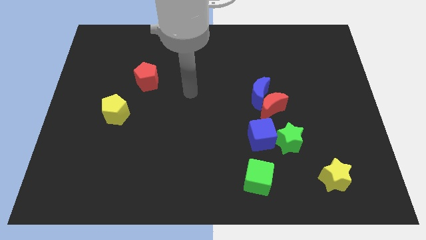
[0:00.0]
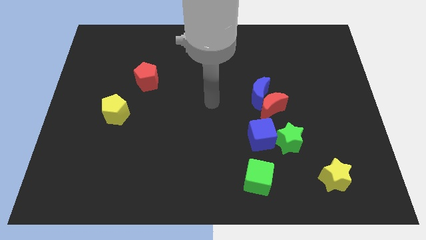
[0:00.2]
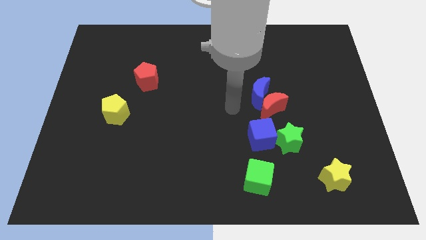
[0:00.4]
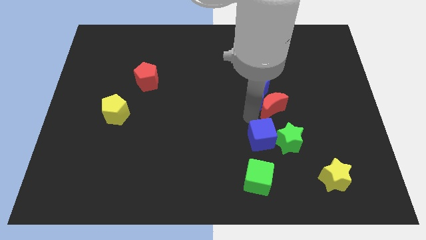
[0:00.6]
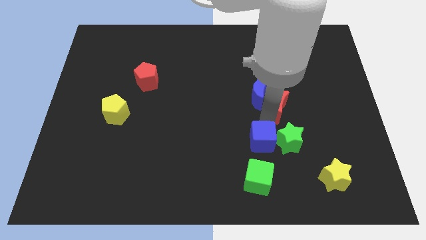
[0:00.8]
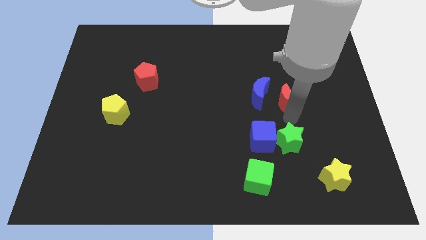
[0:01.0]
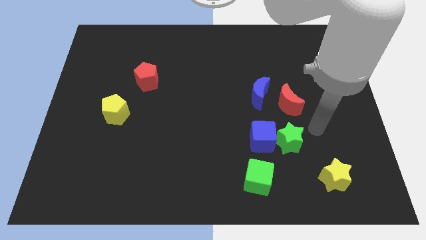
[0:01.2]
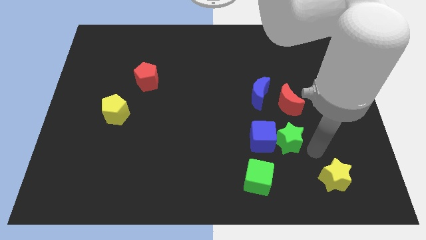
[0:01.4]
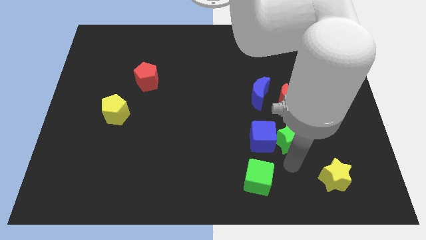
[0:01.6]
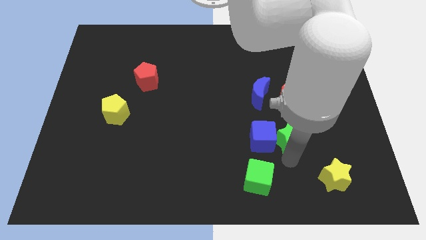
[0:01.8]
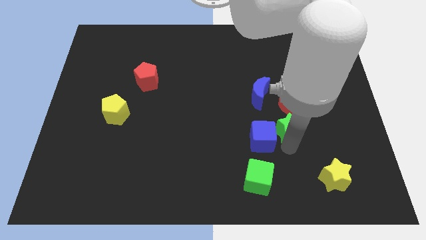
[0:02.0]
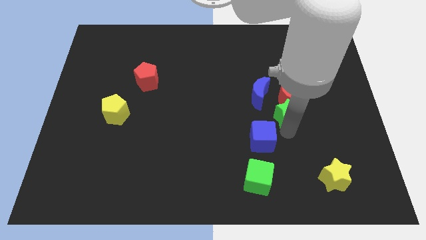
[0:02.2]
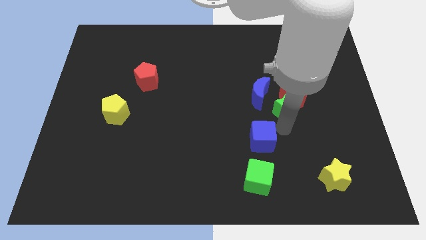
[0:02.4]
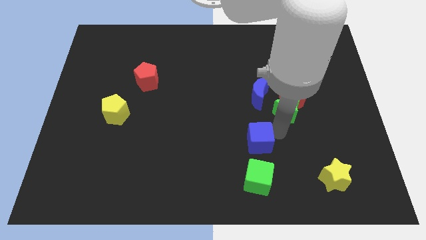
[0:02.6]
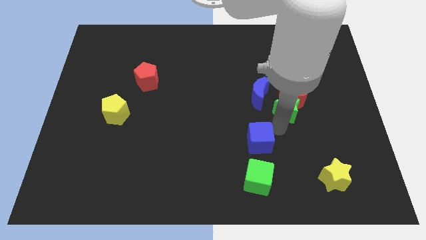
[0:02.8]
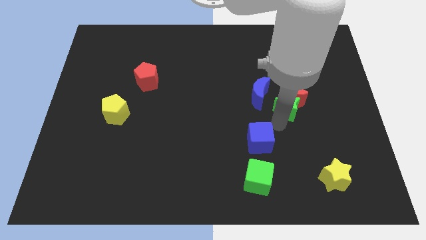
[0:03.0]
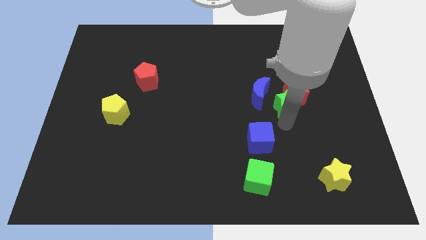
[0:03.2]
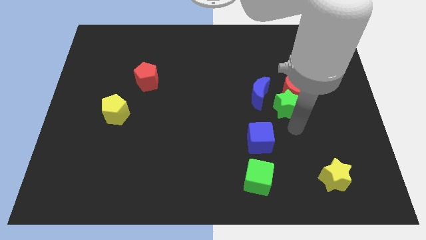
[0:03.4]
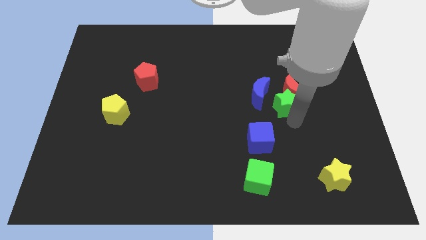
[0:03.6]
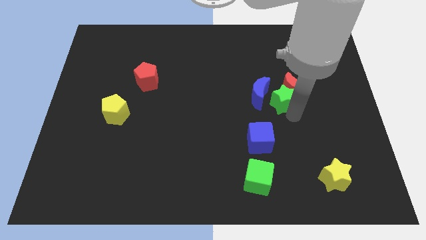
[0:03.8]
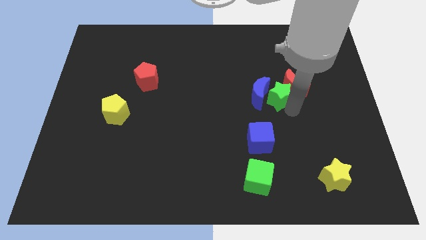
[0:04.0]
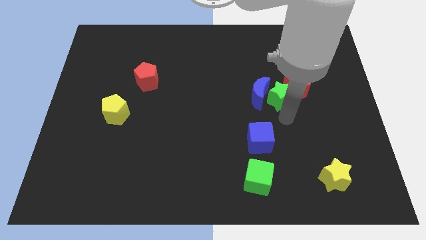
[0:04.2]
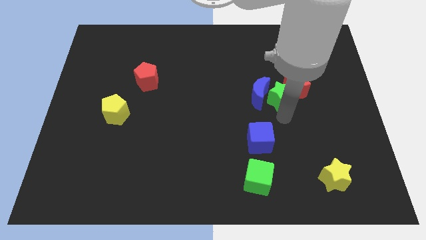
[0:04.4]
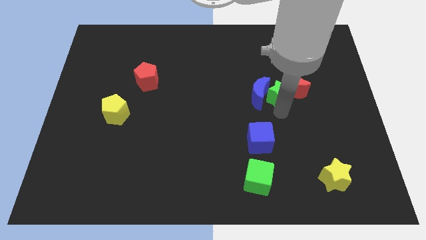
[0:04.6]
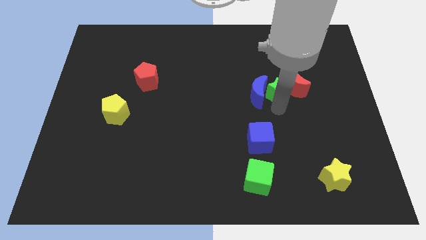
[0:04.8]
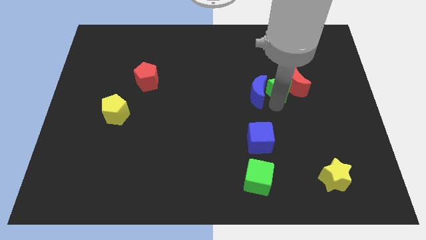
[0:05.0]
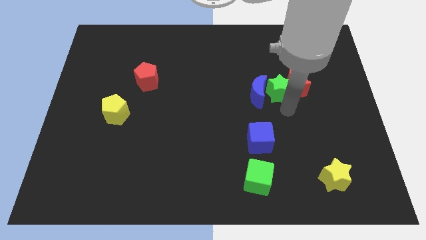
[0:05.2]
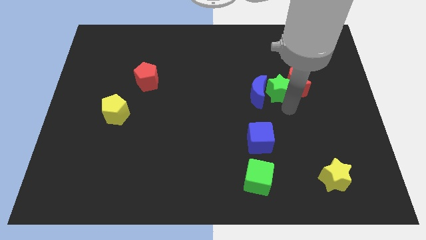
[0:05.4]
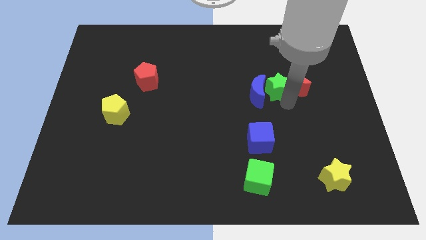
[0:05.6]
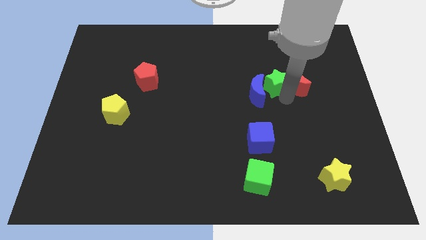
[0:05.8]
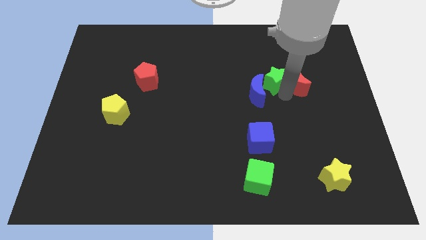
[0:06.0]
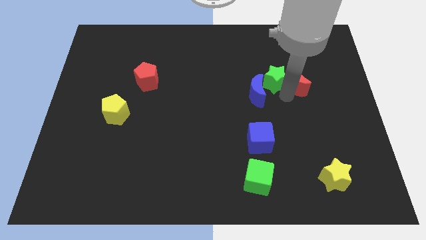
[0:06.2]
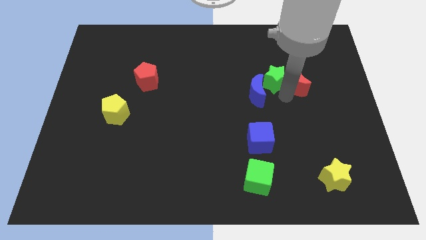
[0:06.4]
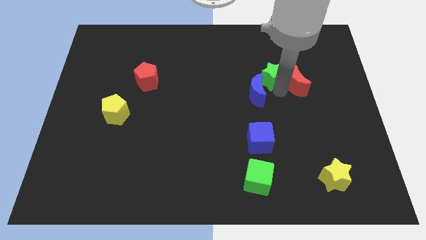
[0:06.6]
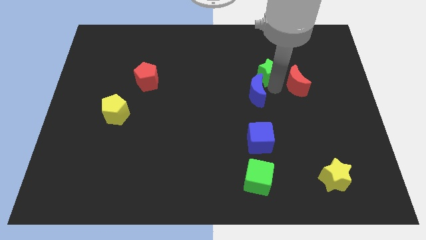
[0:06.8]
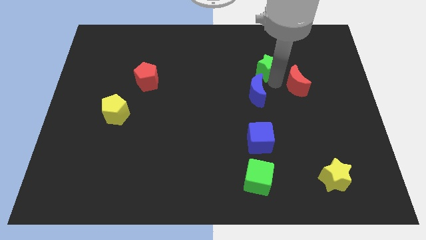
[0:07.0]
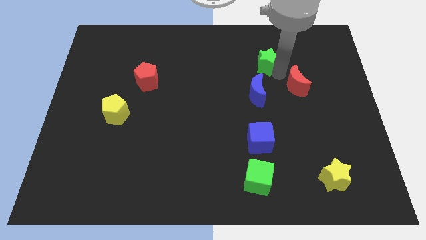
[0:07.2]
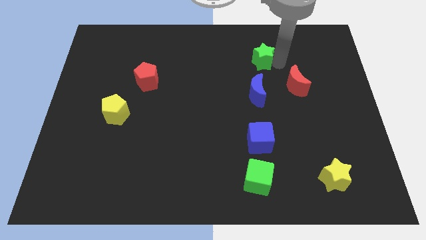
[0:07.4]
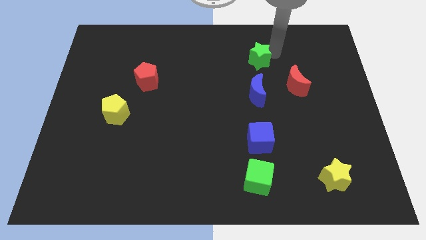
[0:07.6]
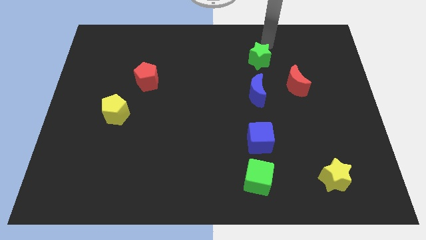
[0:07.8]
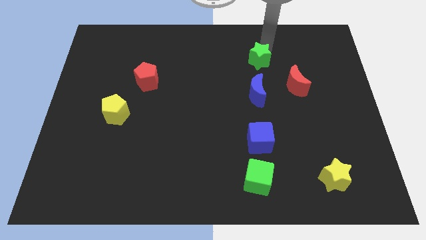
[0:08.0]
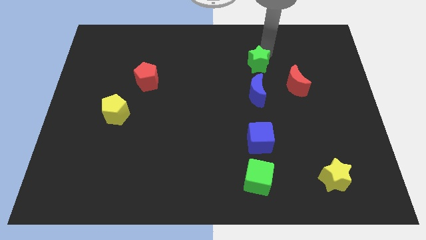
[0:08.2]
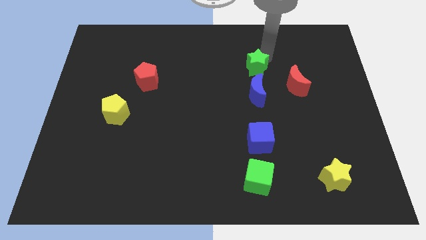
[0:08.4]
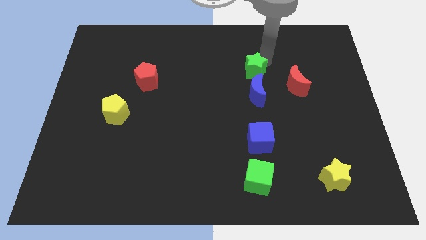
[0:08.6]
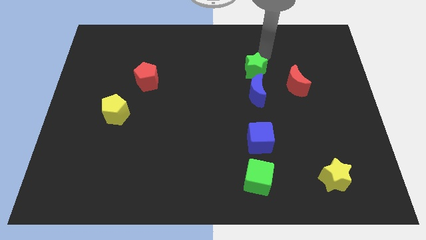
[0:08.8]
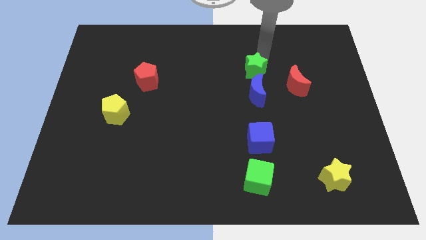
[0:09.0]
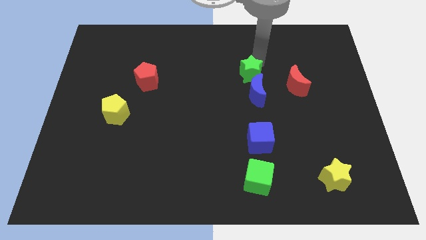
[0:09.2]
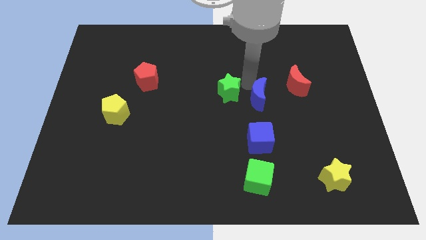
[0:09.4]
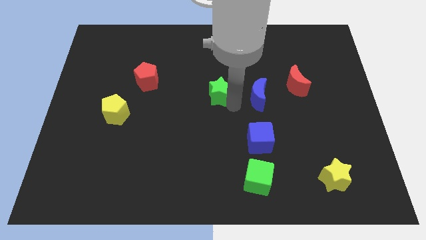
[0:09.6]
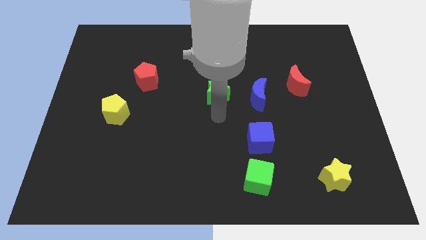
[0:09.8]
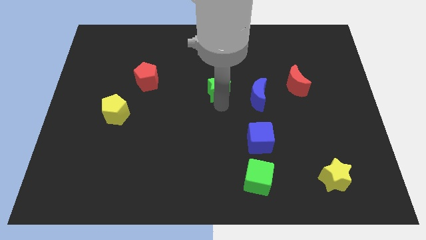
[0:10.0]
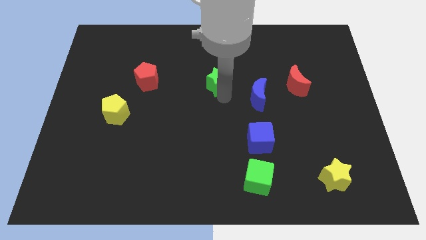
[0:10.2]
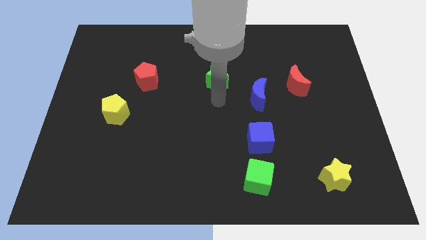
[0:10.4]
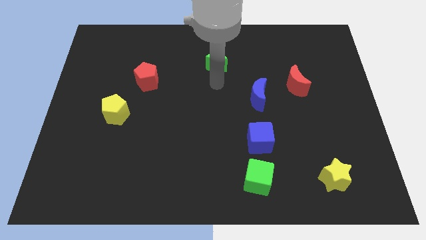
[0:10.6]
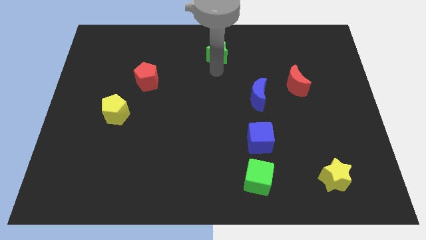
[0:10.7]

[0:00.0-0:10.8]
move the green star to the top

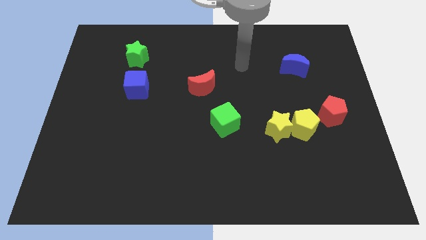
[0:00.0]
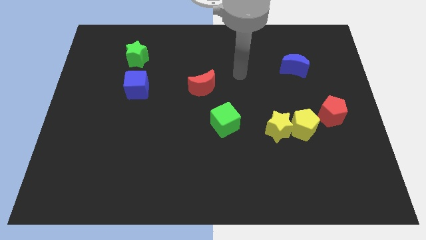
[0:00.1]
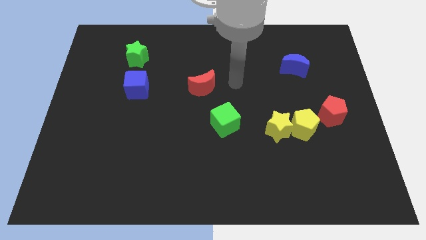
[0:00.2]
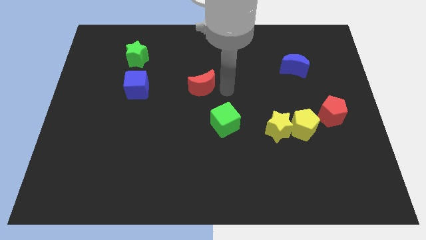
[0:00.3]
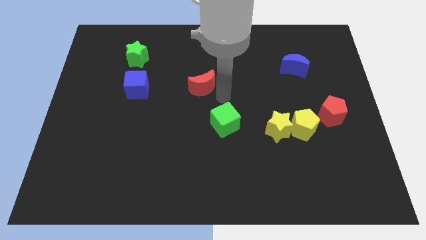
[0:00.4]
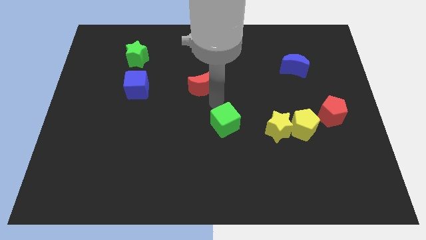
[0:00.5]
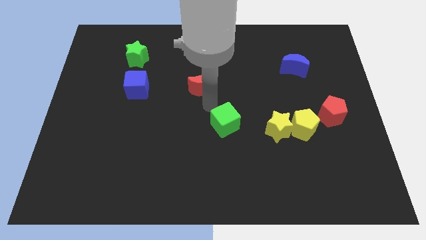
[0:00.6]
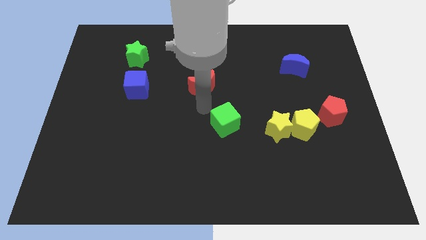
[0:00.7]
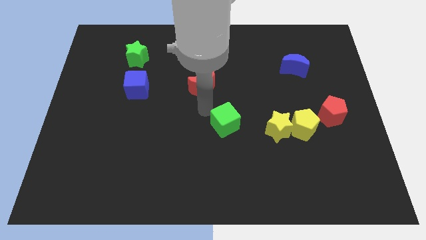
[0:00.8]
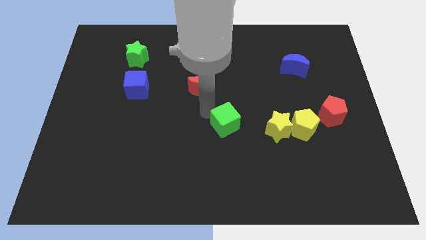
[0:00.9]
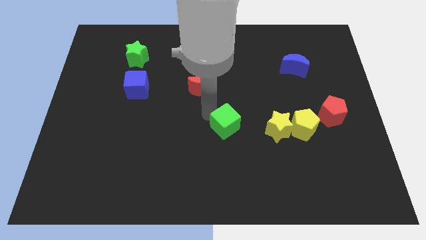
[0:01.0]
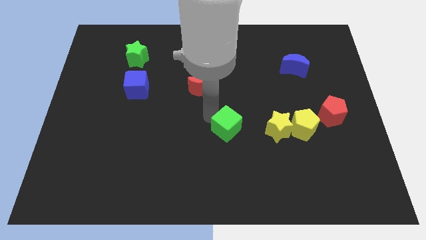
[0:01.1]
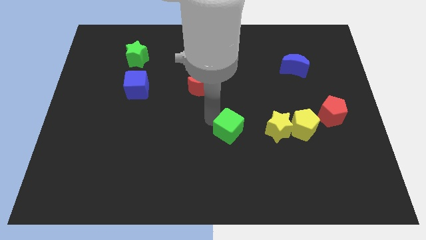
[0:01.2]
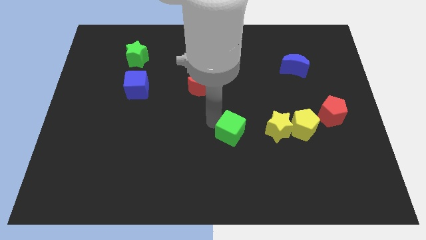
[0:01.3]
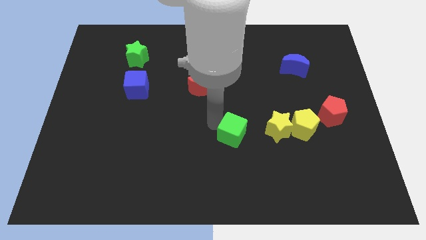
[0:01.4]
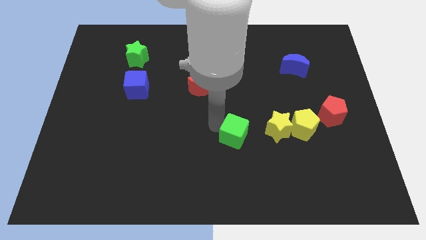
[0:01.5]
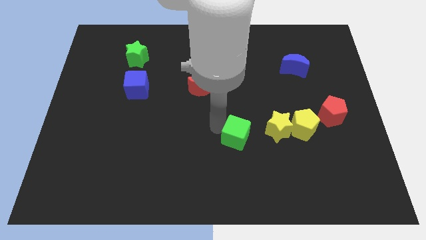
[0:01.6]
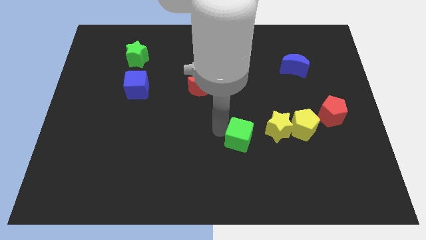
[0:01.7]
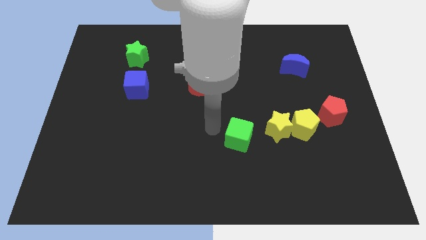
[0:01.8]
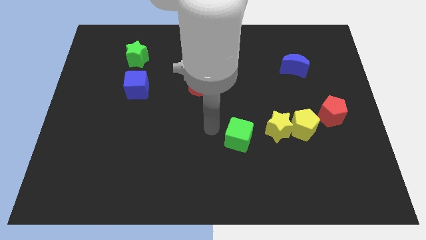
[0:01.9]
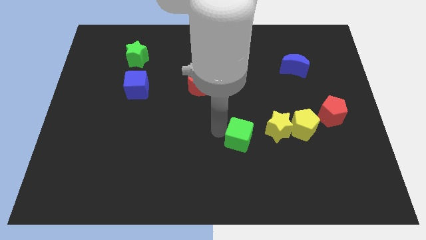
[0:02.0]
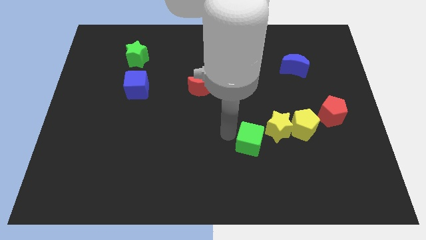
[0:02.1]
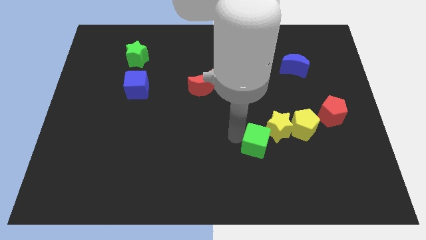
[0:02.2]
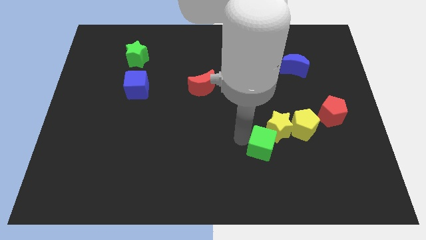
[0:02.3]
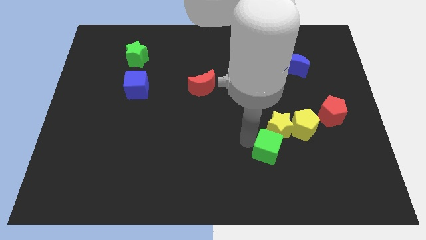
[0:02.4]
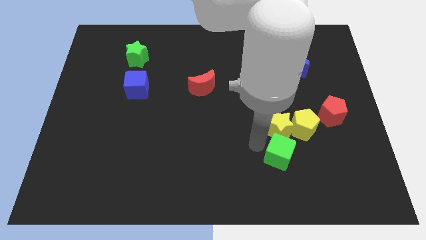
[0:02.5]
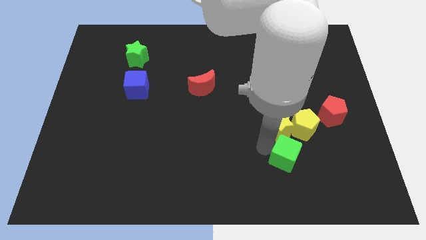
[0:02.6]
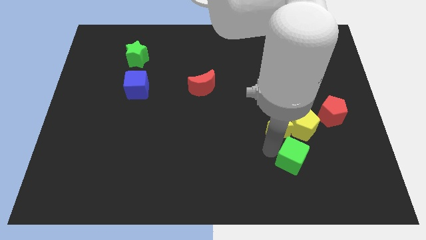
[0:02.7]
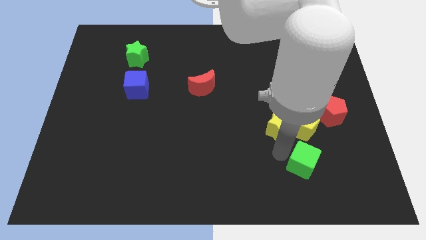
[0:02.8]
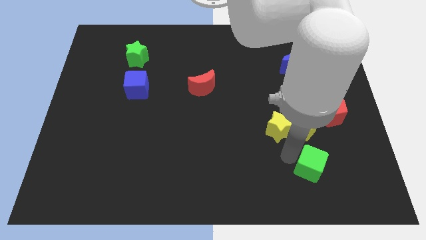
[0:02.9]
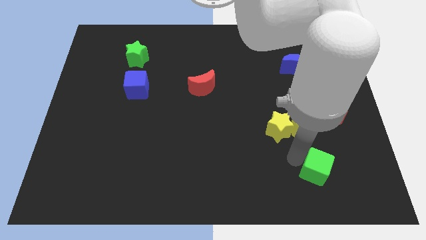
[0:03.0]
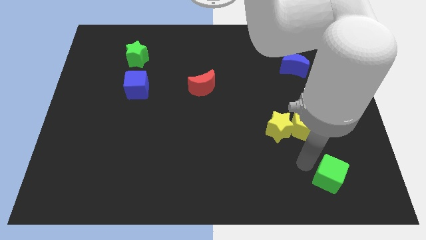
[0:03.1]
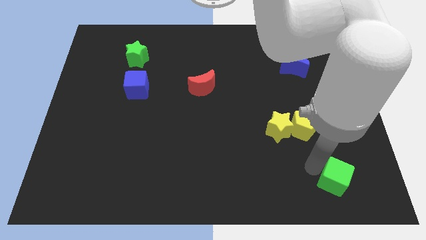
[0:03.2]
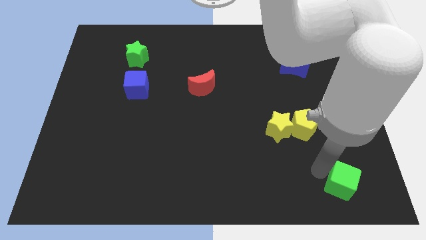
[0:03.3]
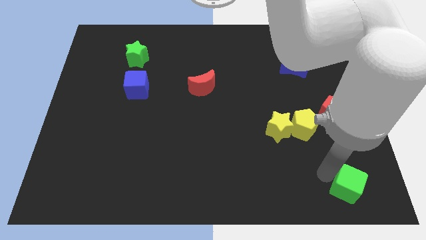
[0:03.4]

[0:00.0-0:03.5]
slide the green cube to the bottom right of the board
